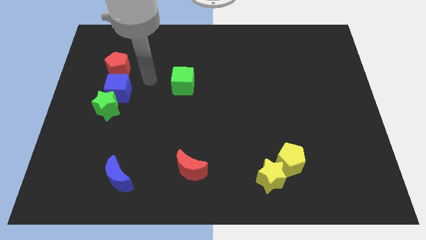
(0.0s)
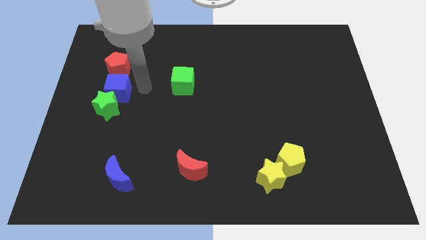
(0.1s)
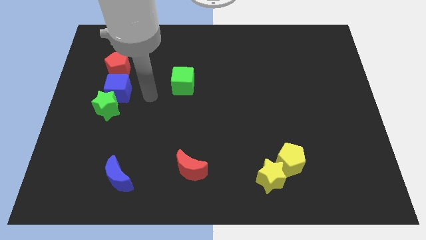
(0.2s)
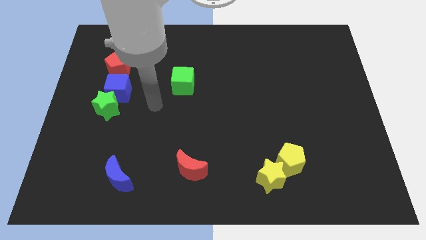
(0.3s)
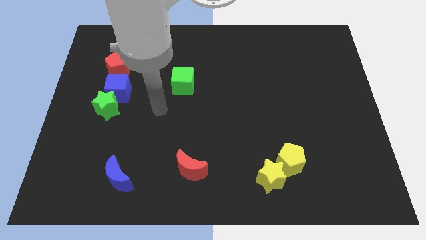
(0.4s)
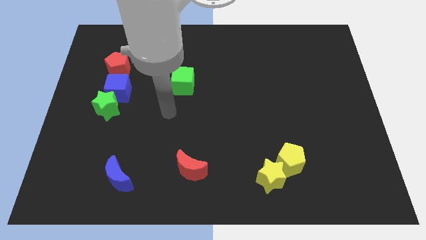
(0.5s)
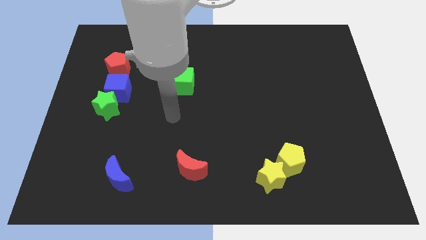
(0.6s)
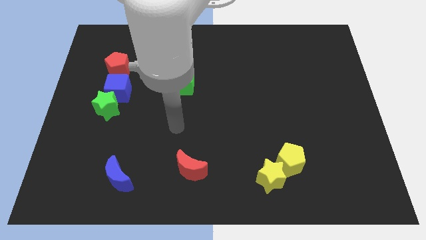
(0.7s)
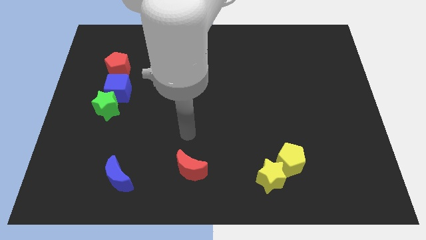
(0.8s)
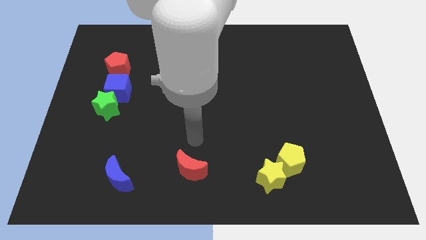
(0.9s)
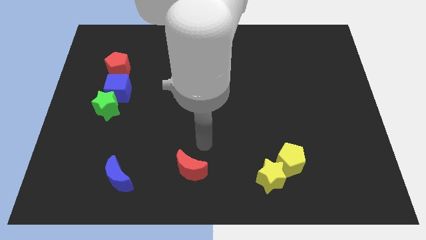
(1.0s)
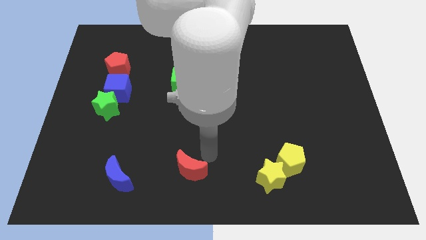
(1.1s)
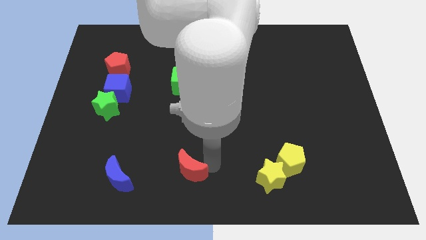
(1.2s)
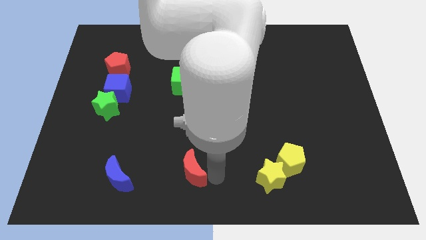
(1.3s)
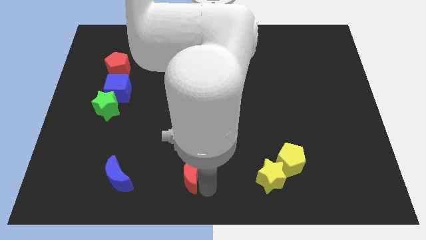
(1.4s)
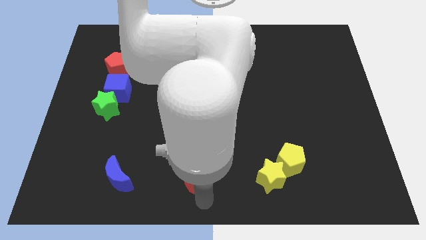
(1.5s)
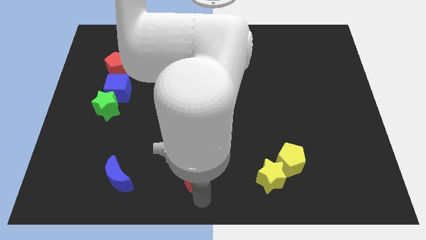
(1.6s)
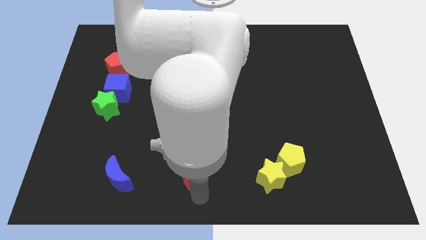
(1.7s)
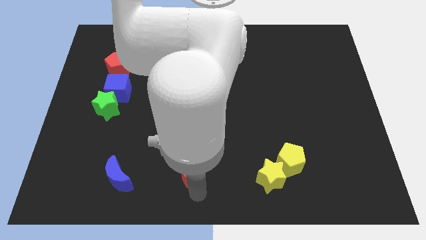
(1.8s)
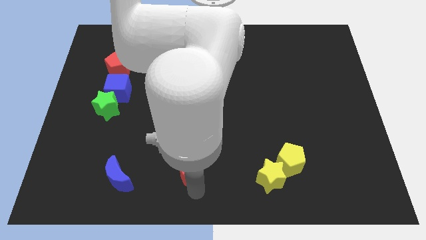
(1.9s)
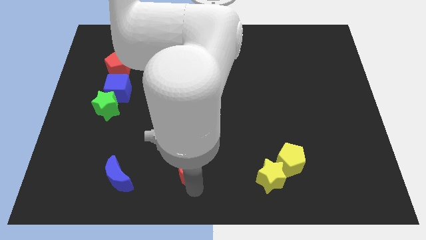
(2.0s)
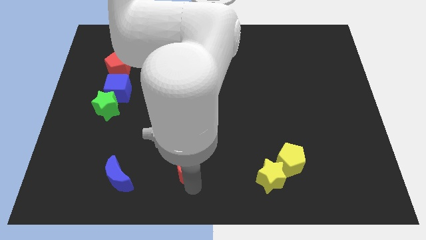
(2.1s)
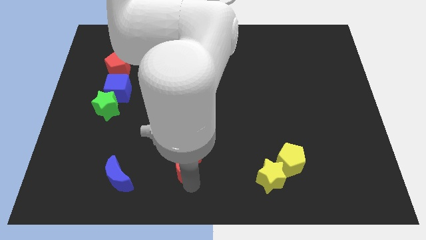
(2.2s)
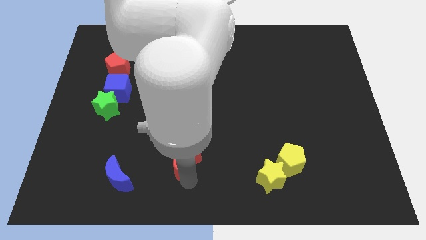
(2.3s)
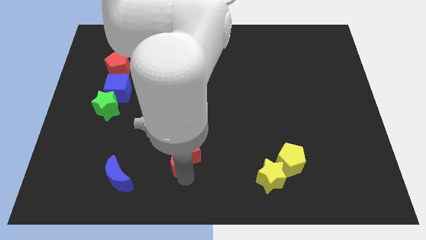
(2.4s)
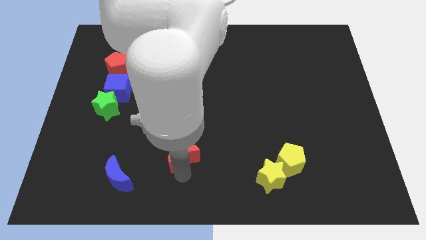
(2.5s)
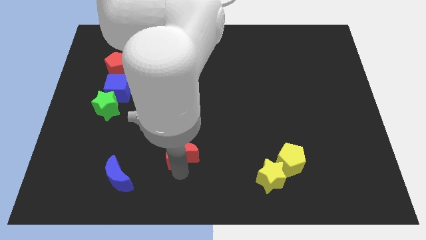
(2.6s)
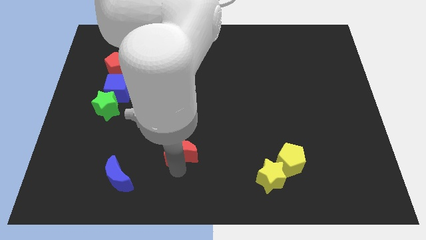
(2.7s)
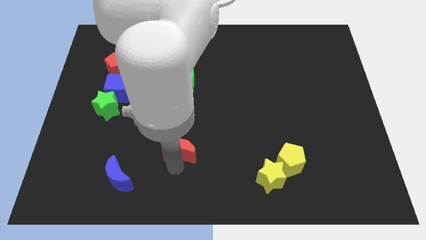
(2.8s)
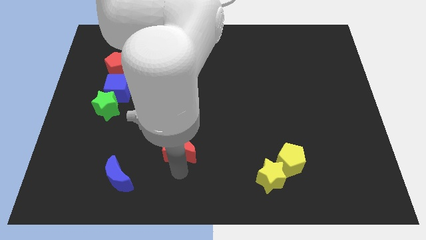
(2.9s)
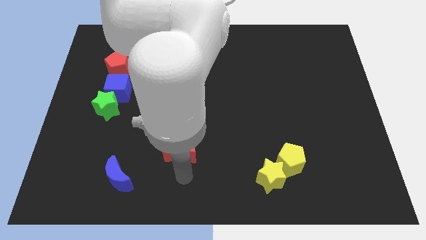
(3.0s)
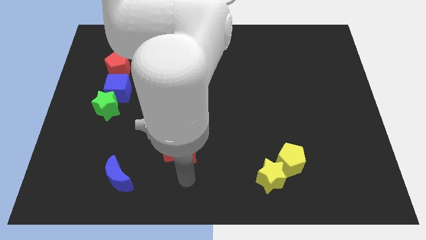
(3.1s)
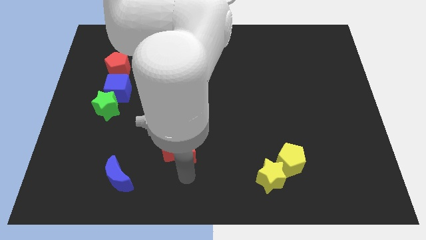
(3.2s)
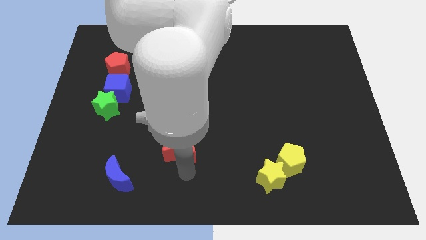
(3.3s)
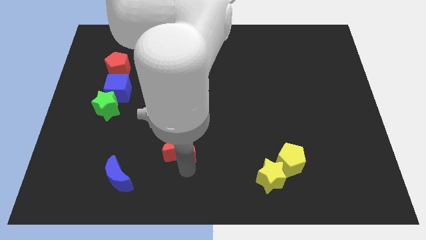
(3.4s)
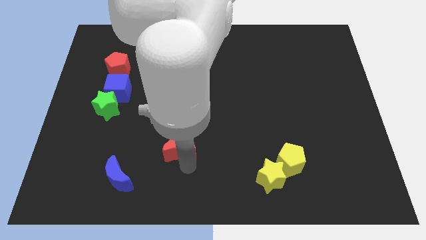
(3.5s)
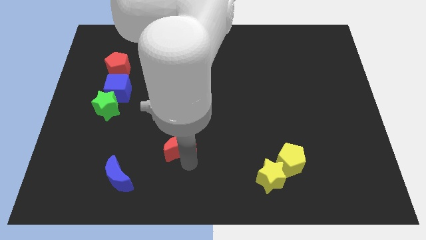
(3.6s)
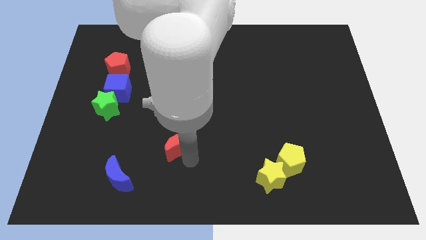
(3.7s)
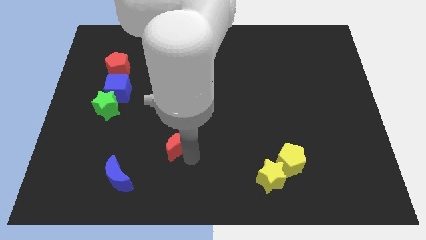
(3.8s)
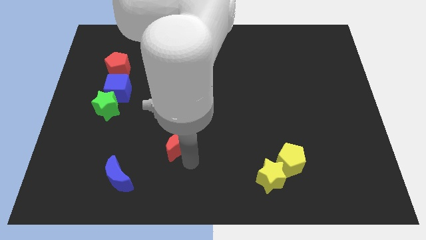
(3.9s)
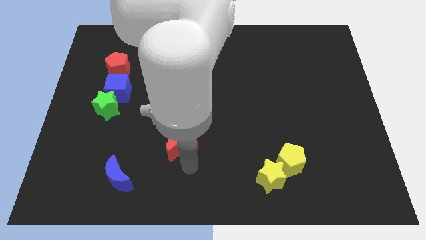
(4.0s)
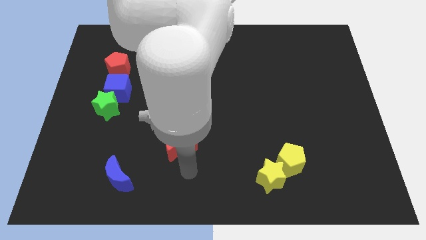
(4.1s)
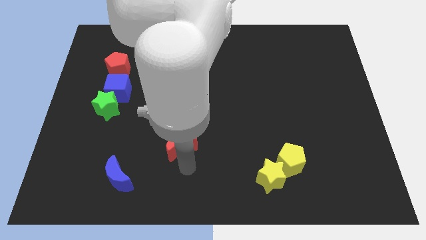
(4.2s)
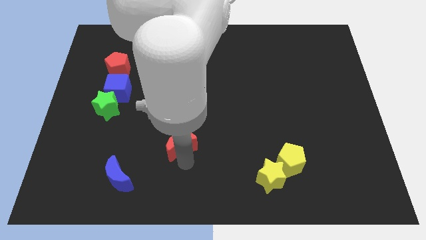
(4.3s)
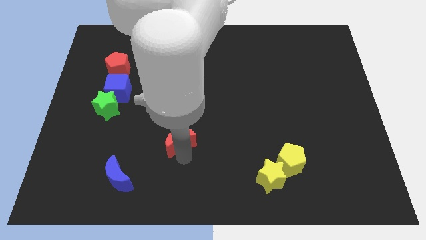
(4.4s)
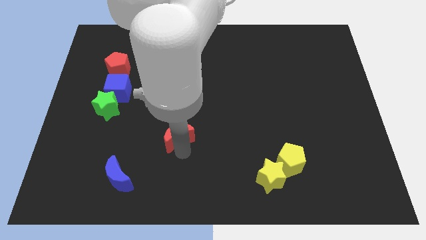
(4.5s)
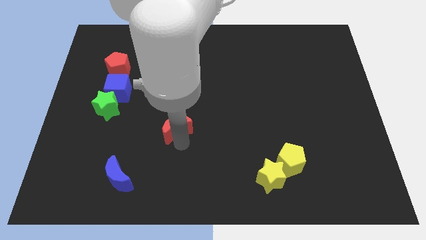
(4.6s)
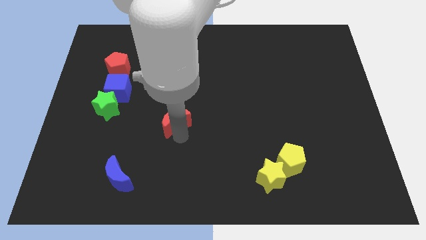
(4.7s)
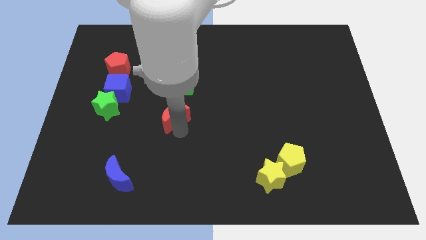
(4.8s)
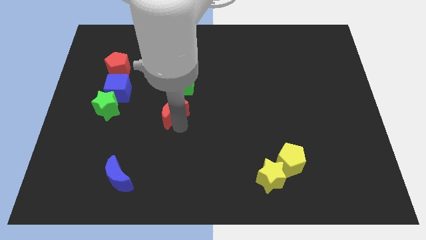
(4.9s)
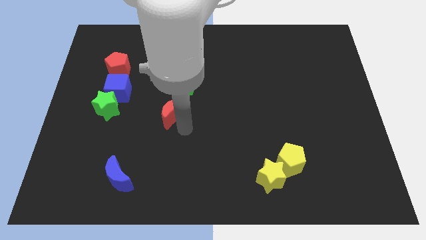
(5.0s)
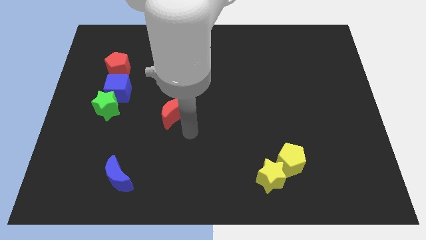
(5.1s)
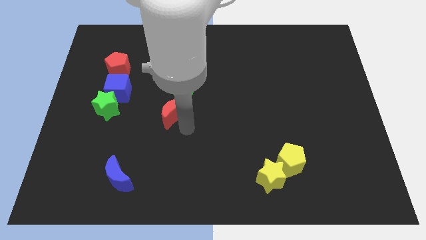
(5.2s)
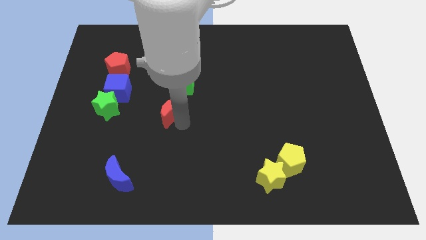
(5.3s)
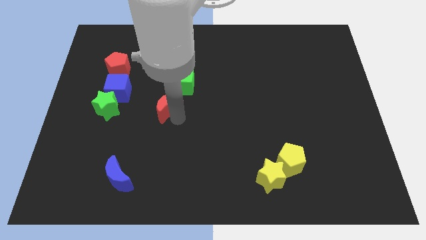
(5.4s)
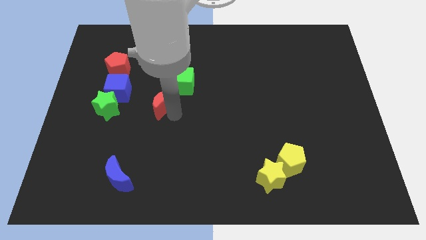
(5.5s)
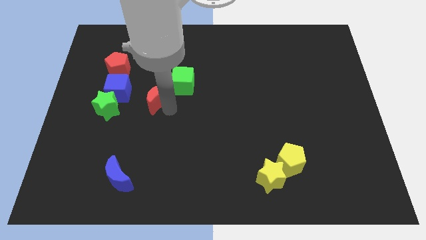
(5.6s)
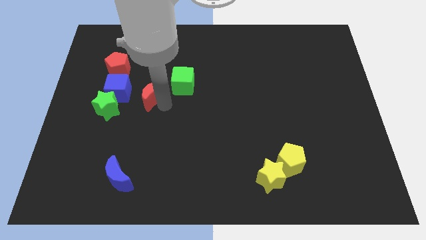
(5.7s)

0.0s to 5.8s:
put the red moon just left of the green cube
